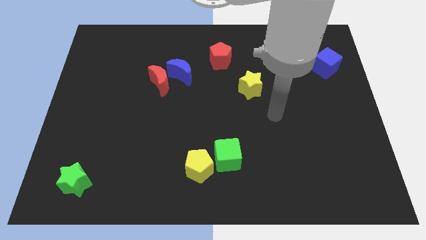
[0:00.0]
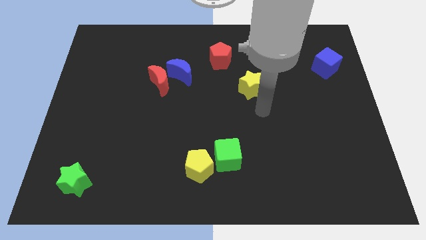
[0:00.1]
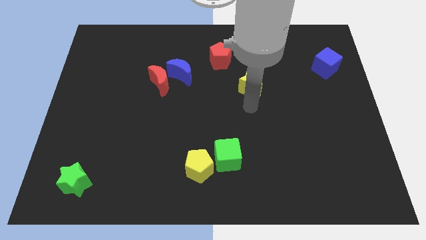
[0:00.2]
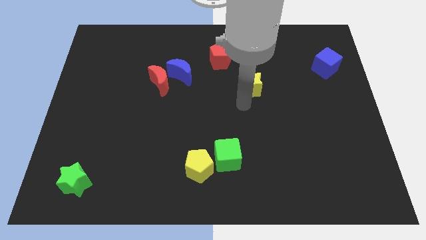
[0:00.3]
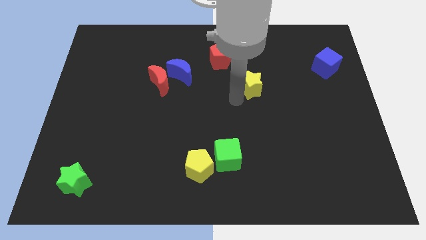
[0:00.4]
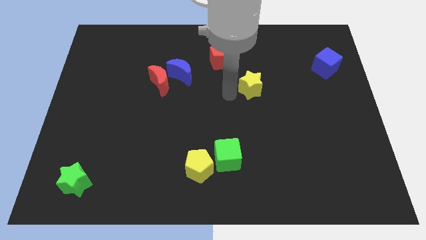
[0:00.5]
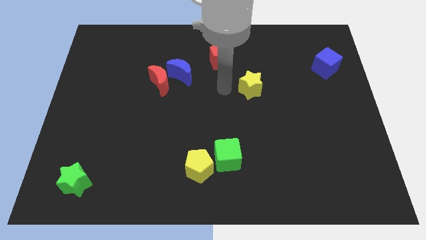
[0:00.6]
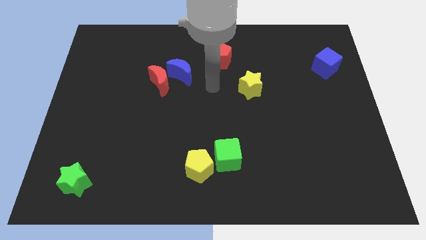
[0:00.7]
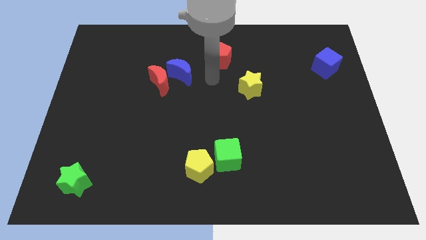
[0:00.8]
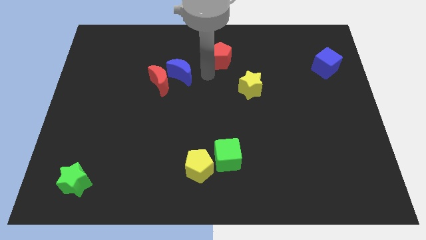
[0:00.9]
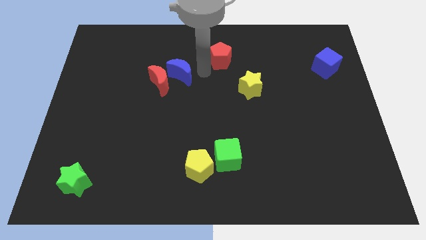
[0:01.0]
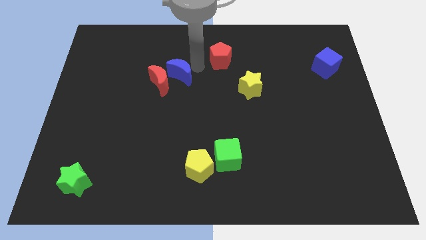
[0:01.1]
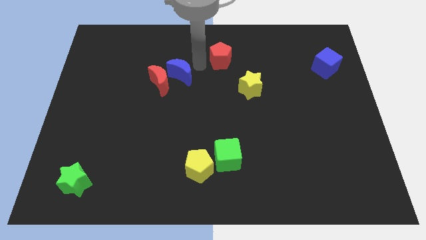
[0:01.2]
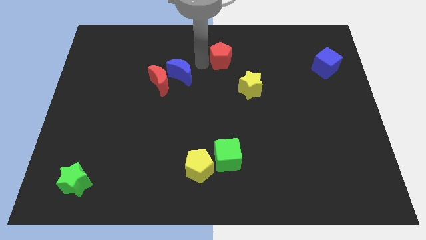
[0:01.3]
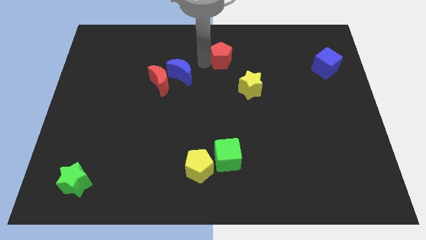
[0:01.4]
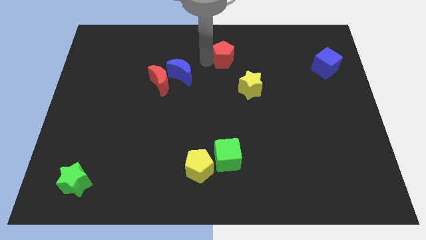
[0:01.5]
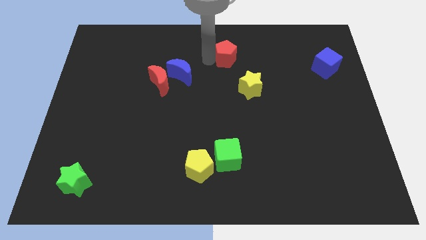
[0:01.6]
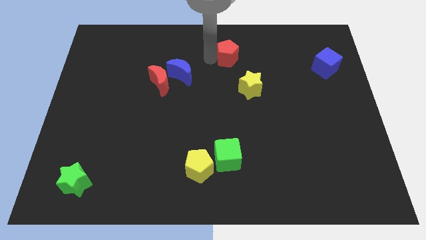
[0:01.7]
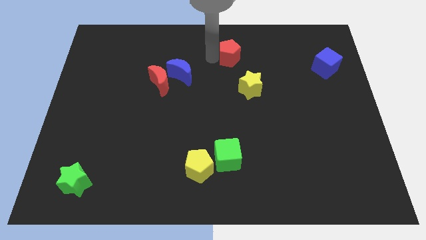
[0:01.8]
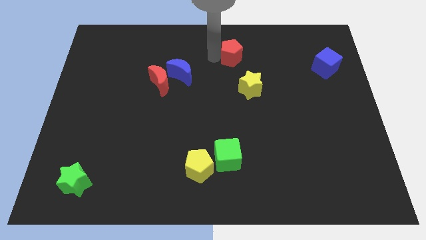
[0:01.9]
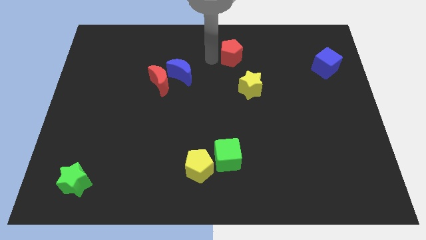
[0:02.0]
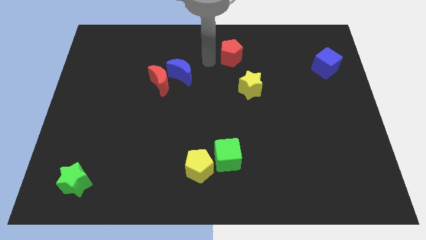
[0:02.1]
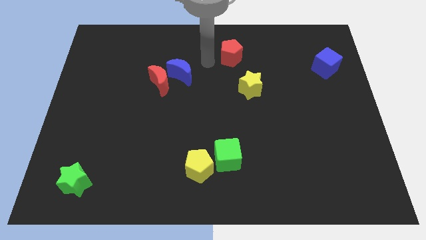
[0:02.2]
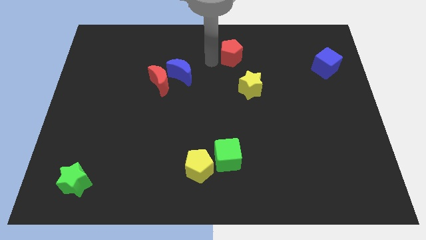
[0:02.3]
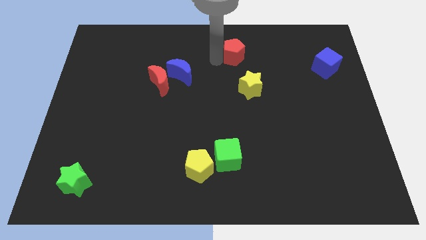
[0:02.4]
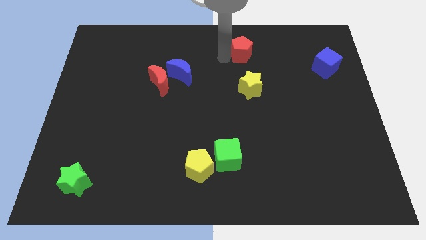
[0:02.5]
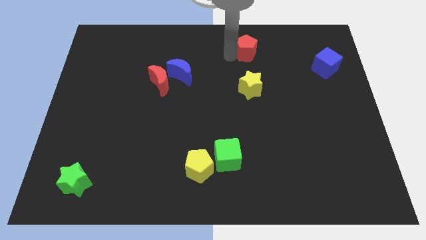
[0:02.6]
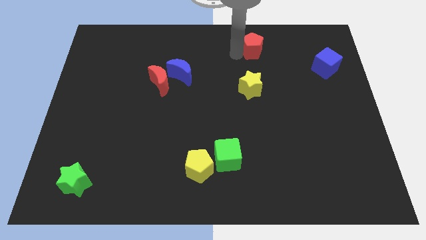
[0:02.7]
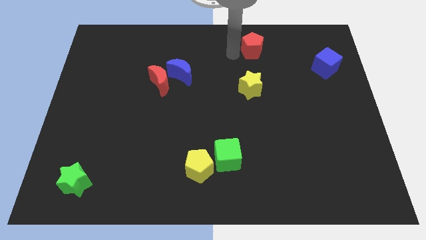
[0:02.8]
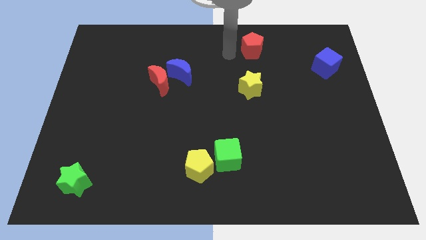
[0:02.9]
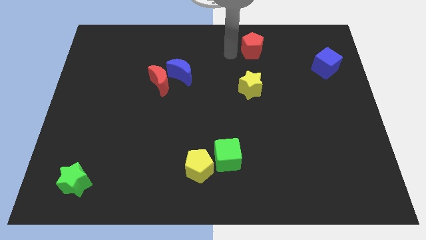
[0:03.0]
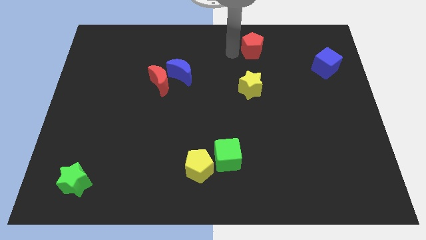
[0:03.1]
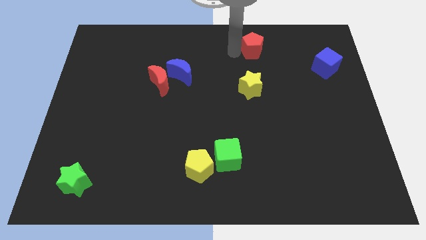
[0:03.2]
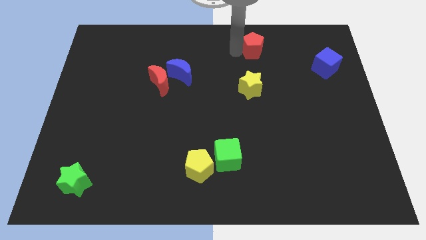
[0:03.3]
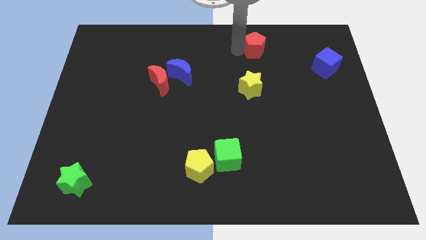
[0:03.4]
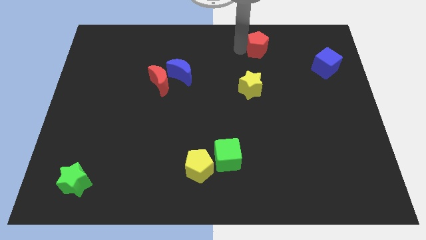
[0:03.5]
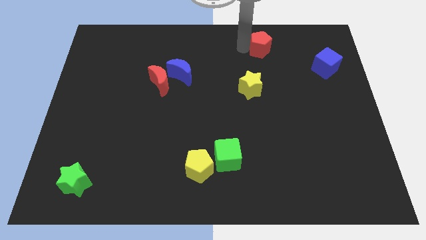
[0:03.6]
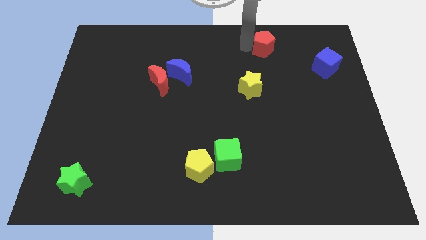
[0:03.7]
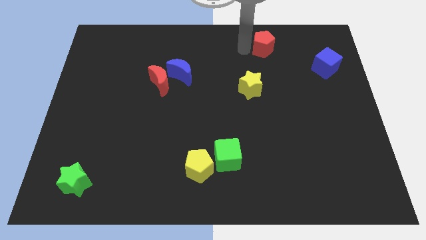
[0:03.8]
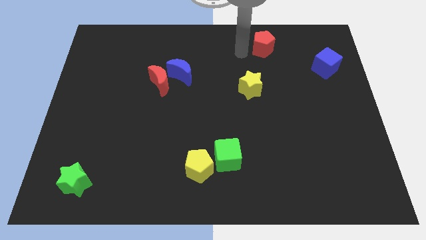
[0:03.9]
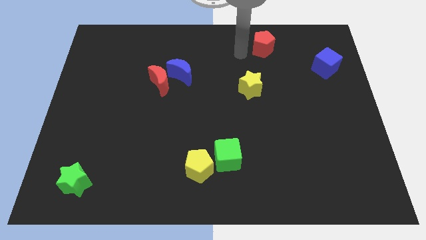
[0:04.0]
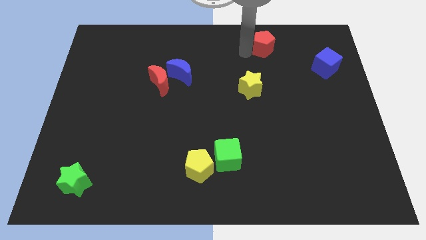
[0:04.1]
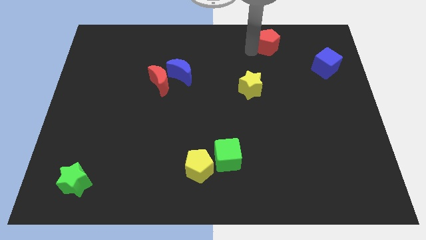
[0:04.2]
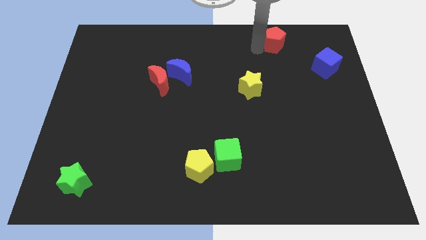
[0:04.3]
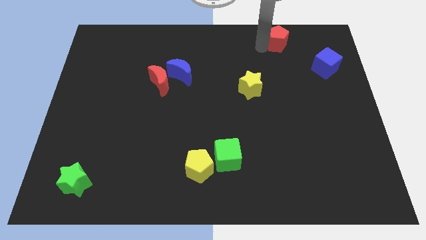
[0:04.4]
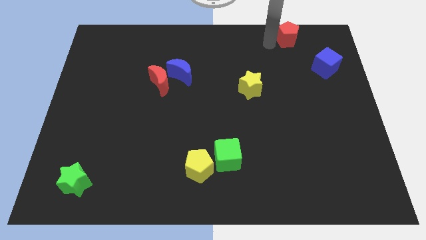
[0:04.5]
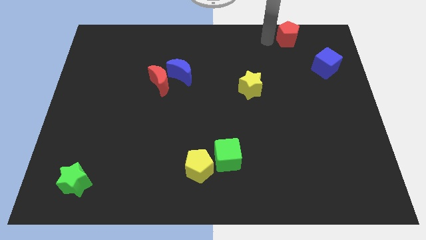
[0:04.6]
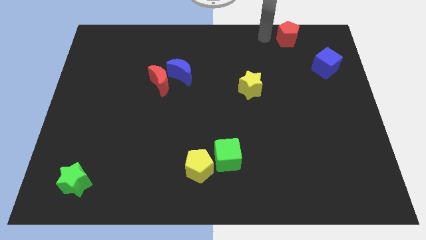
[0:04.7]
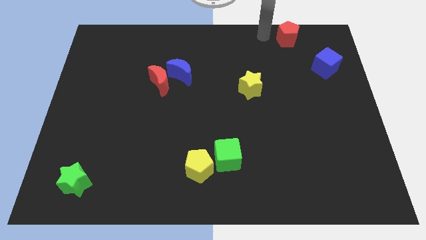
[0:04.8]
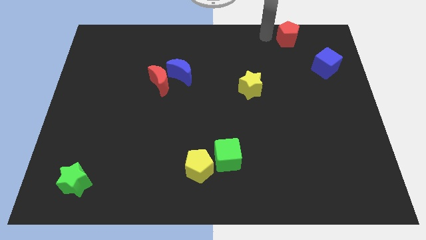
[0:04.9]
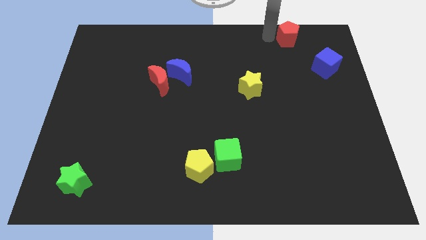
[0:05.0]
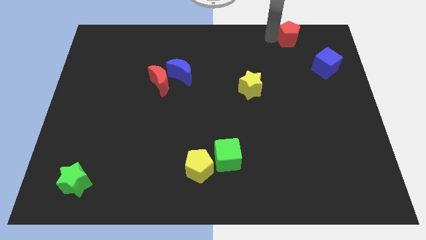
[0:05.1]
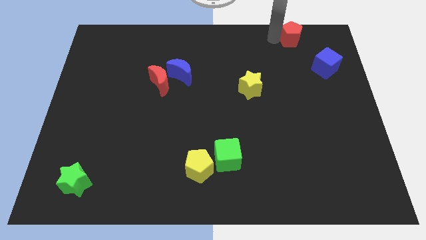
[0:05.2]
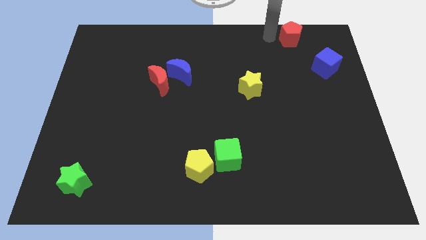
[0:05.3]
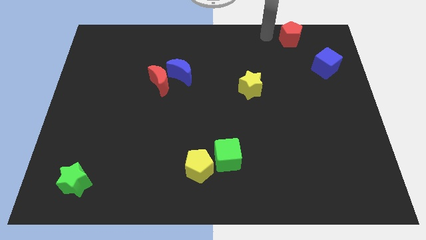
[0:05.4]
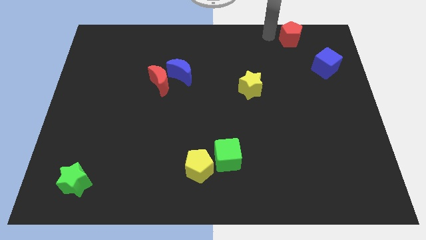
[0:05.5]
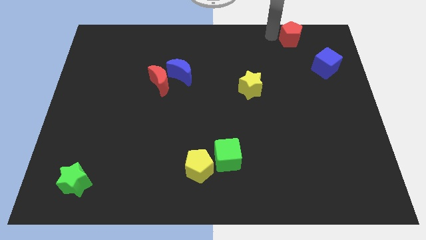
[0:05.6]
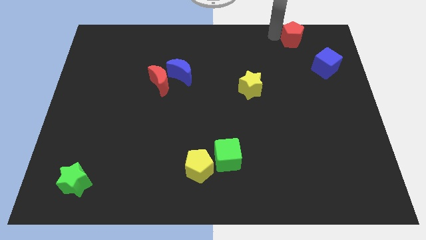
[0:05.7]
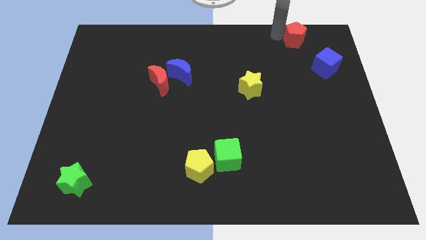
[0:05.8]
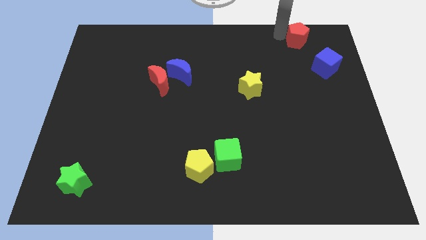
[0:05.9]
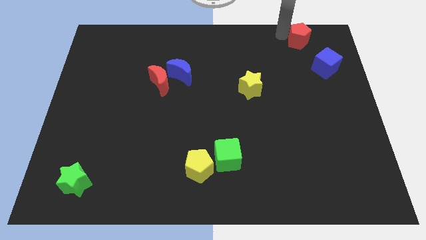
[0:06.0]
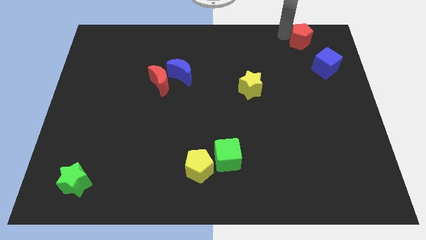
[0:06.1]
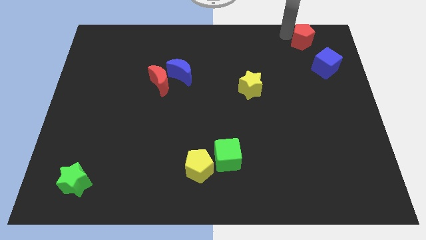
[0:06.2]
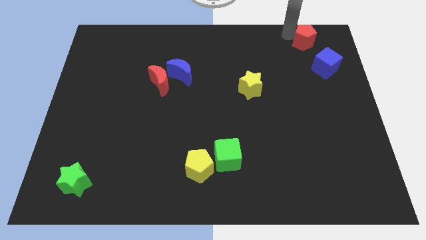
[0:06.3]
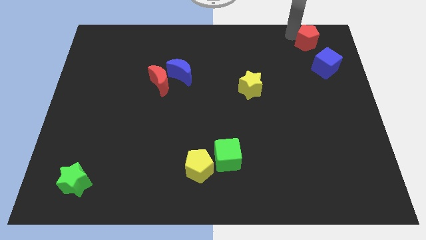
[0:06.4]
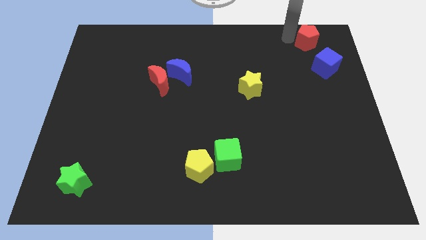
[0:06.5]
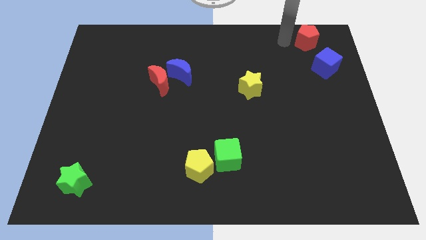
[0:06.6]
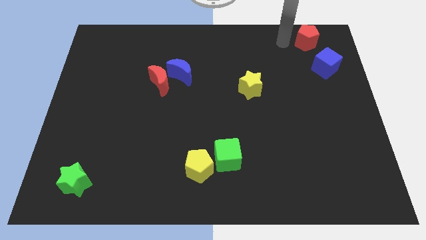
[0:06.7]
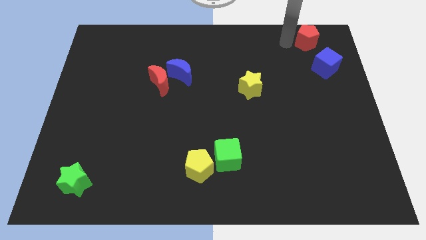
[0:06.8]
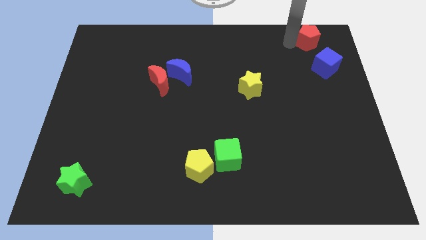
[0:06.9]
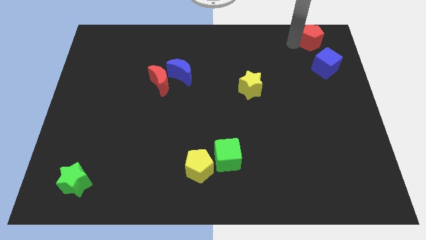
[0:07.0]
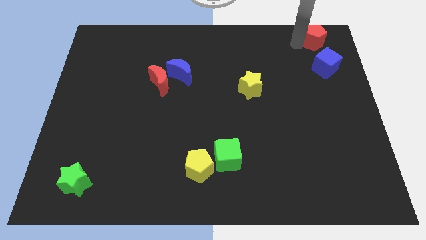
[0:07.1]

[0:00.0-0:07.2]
put the red pentagon to the top right
